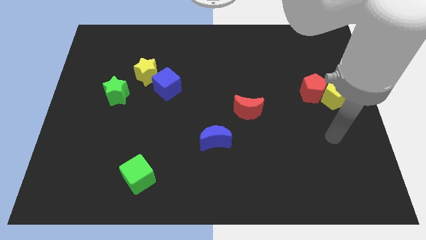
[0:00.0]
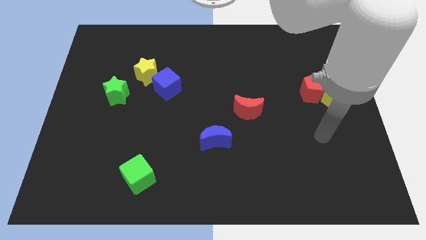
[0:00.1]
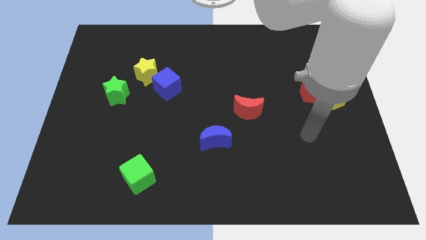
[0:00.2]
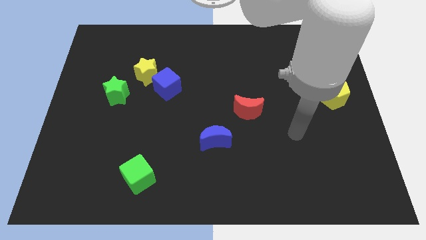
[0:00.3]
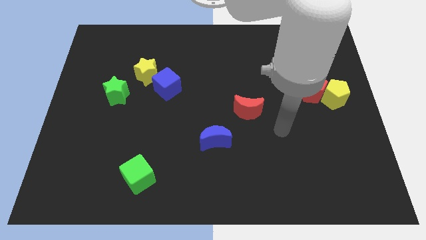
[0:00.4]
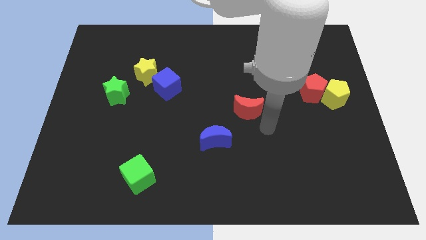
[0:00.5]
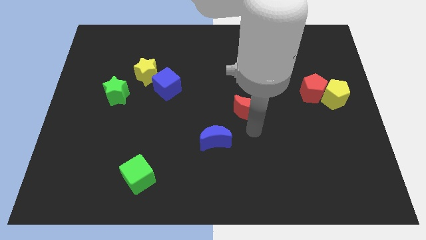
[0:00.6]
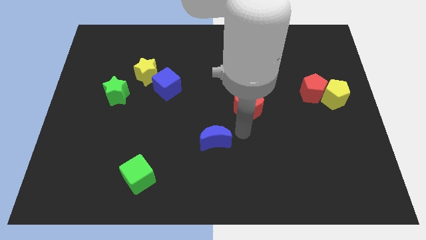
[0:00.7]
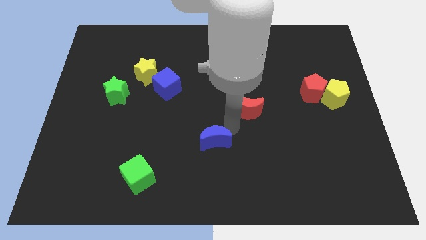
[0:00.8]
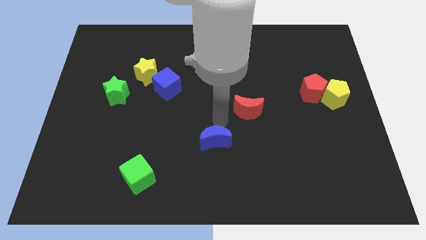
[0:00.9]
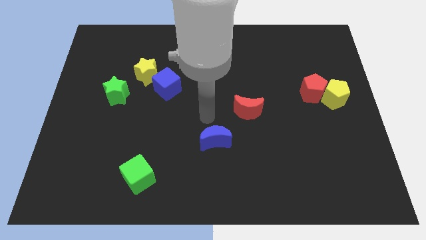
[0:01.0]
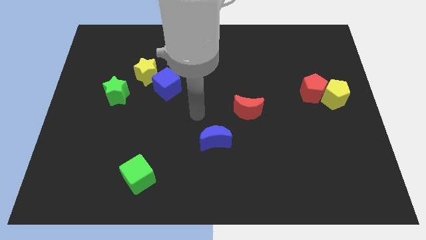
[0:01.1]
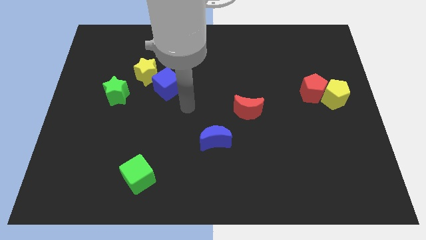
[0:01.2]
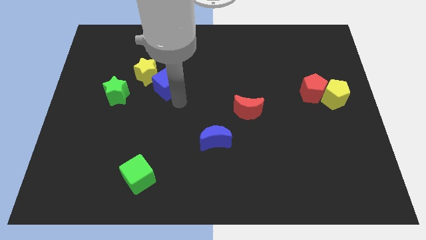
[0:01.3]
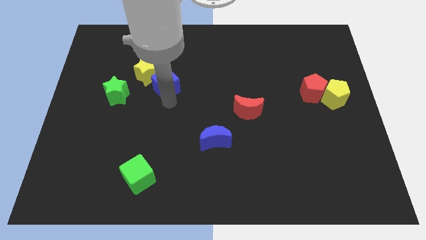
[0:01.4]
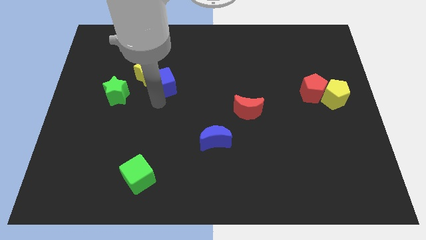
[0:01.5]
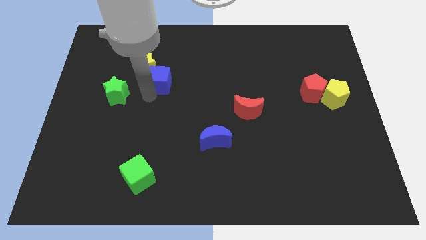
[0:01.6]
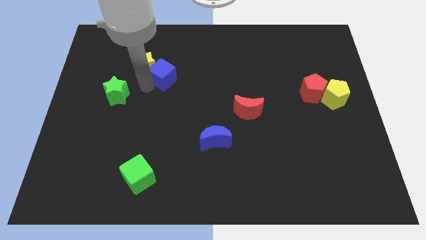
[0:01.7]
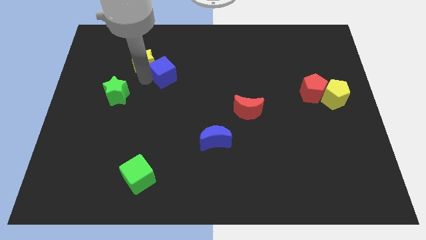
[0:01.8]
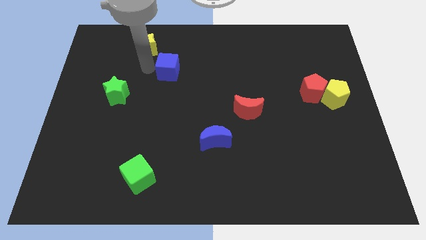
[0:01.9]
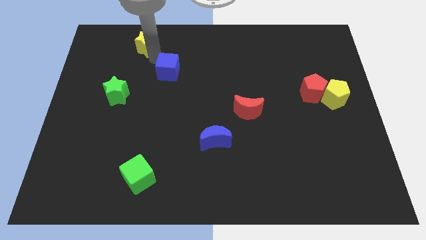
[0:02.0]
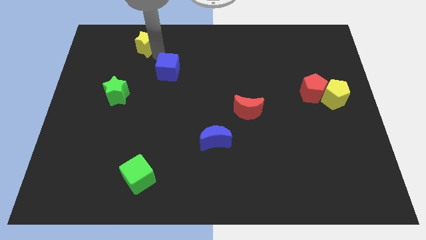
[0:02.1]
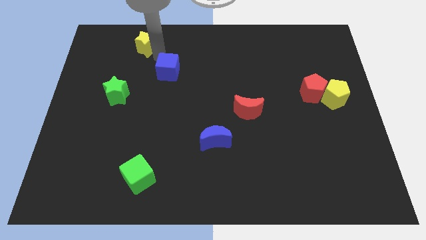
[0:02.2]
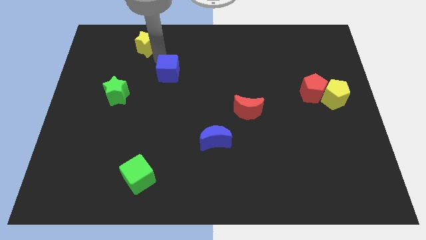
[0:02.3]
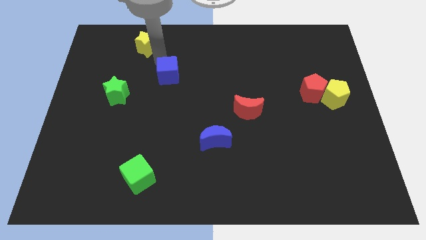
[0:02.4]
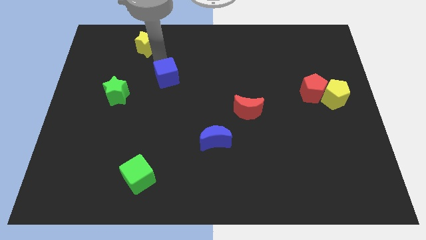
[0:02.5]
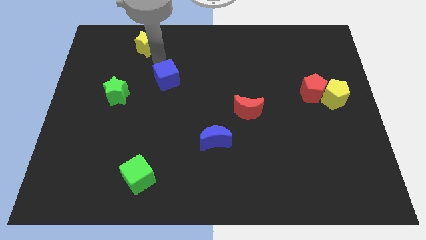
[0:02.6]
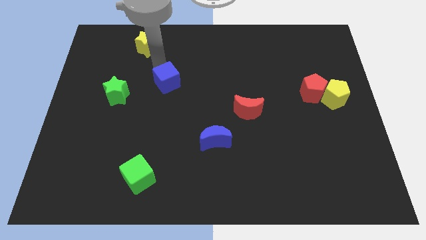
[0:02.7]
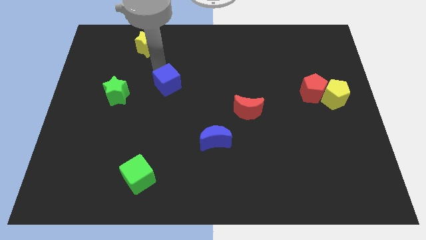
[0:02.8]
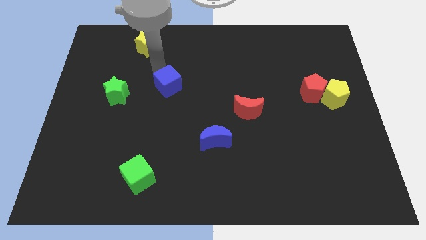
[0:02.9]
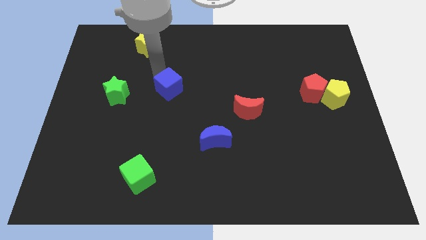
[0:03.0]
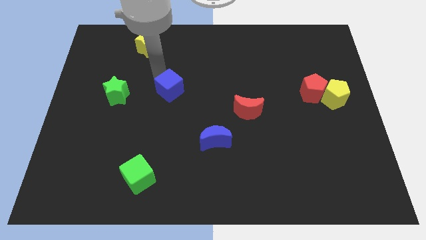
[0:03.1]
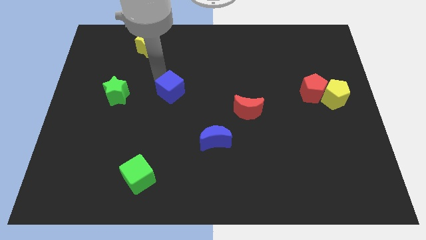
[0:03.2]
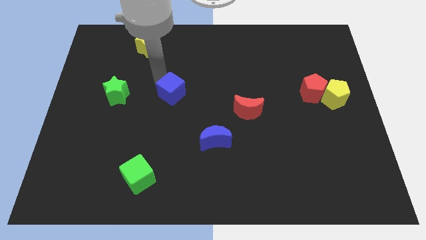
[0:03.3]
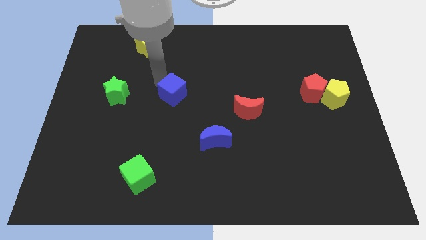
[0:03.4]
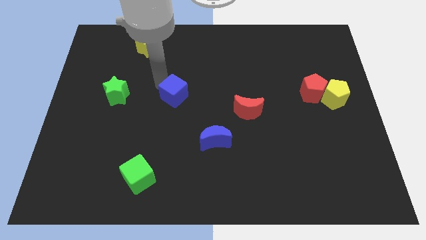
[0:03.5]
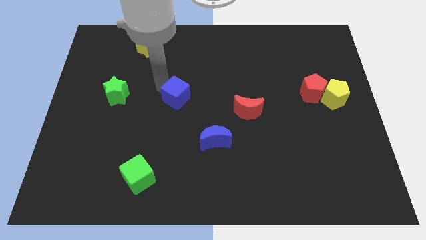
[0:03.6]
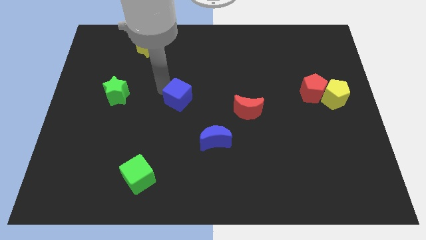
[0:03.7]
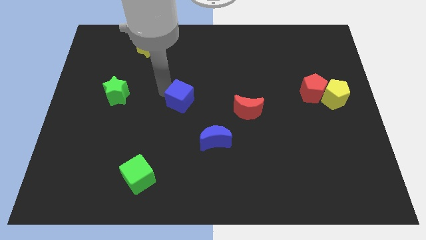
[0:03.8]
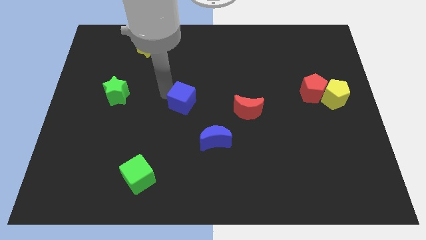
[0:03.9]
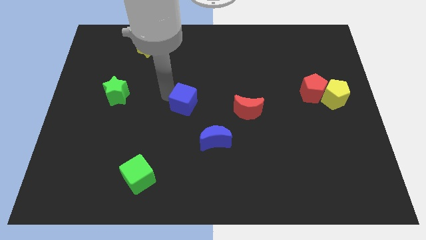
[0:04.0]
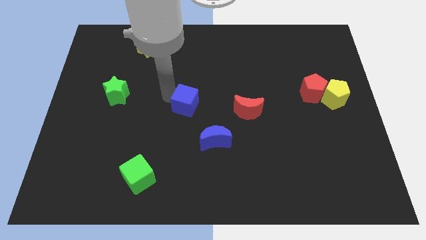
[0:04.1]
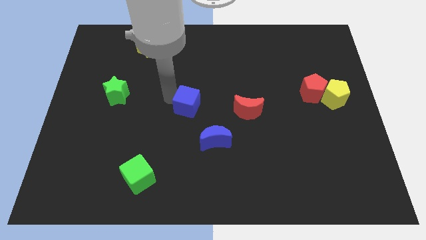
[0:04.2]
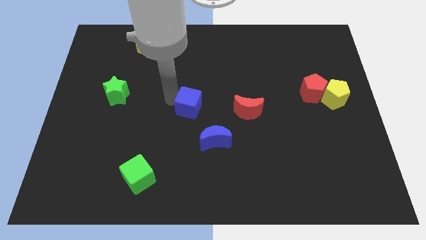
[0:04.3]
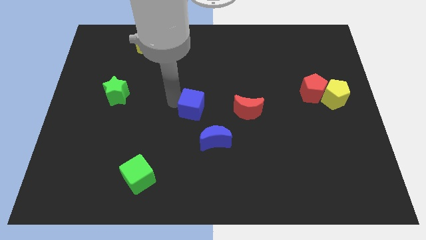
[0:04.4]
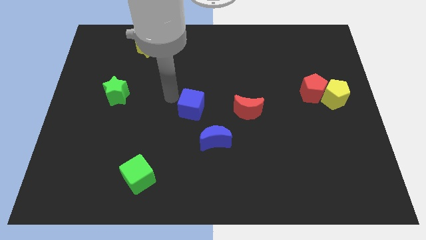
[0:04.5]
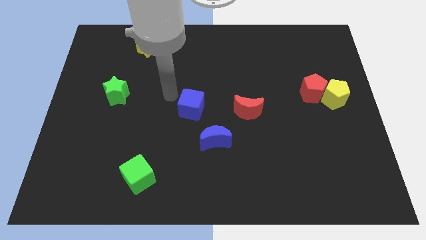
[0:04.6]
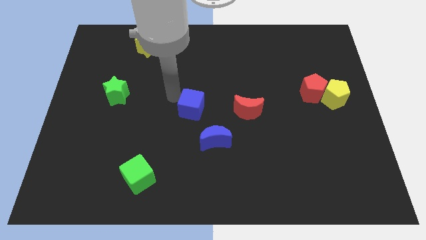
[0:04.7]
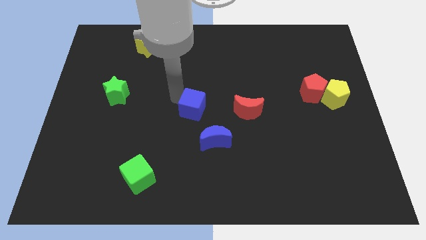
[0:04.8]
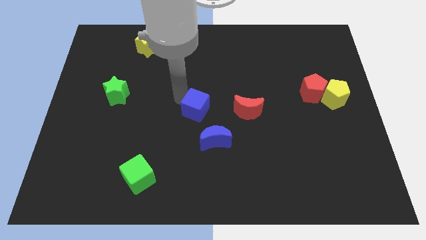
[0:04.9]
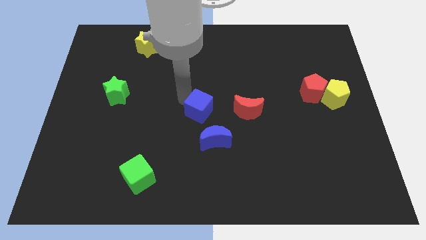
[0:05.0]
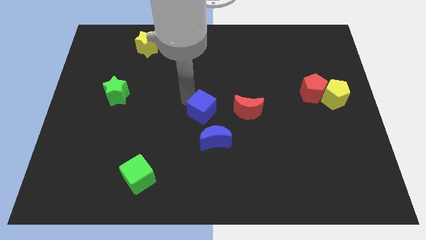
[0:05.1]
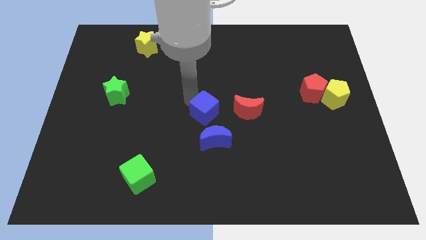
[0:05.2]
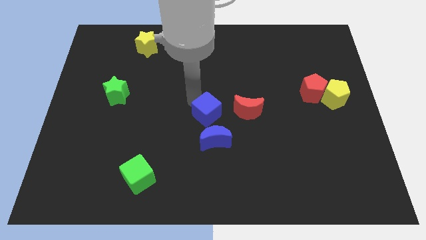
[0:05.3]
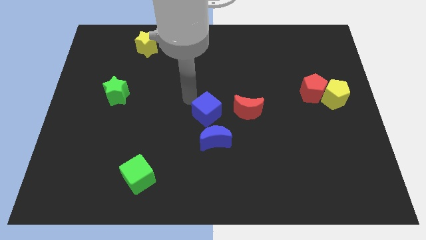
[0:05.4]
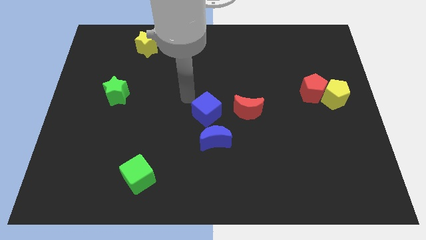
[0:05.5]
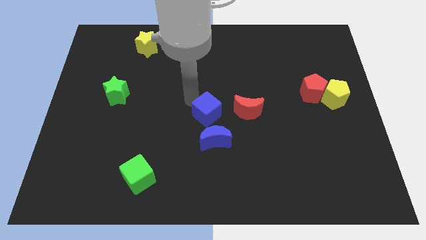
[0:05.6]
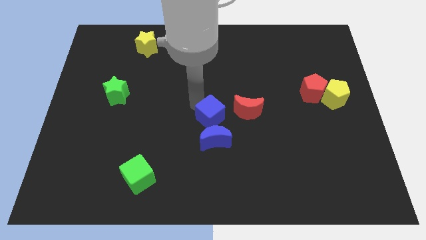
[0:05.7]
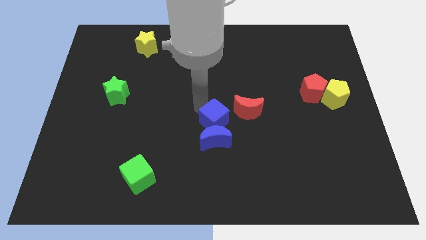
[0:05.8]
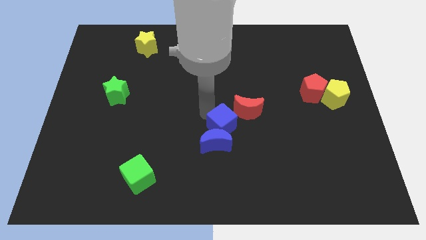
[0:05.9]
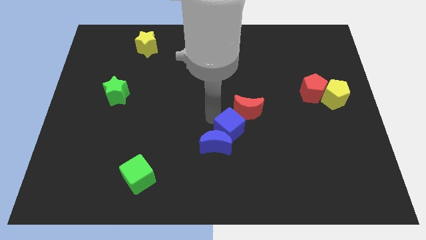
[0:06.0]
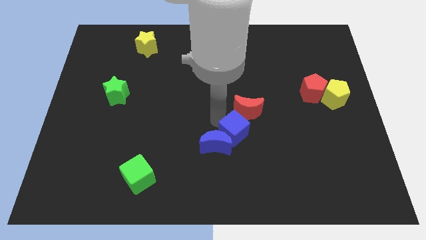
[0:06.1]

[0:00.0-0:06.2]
push the blue cube diagonally down and to the right

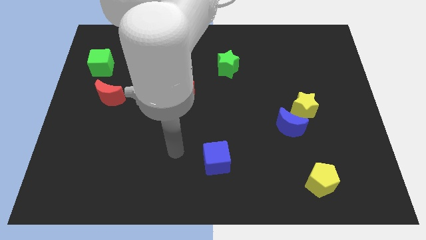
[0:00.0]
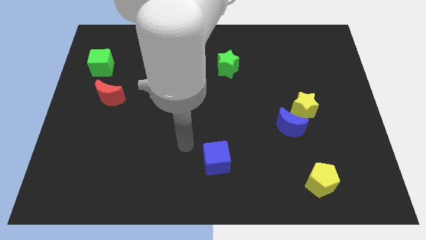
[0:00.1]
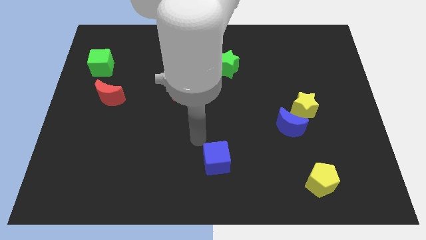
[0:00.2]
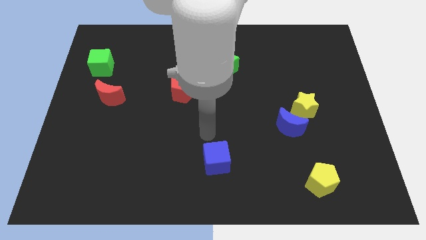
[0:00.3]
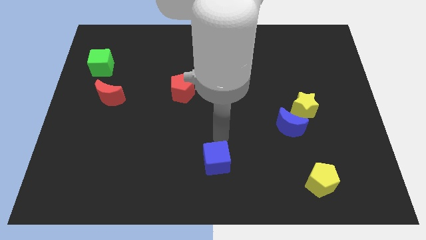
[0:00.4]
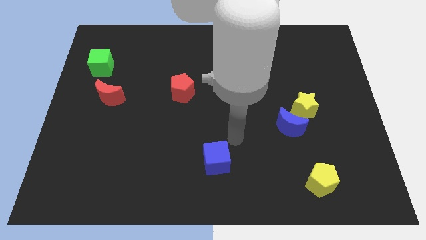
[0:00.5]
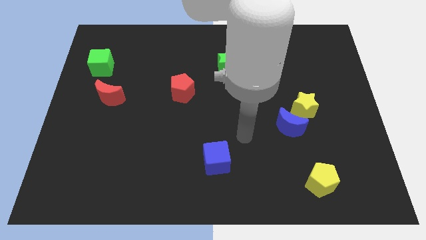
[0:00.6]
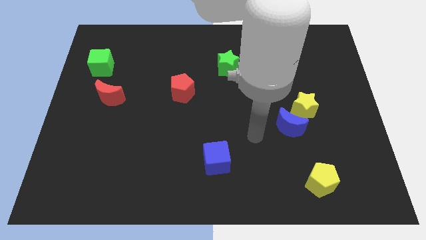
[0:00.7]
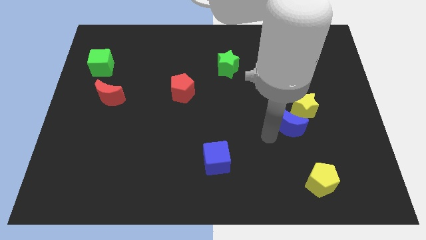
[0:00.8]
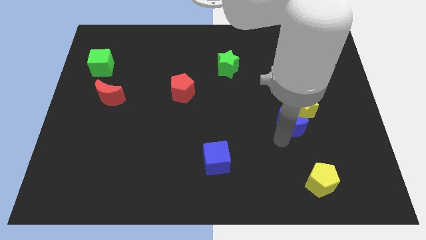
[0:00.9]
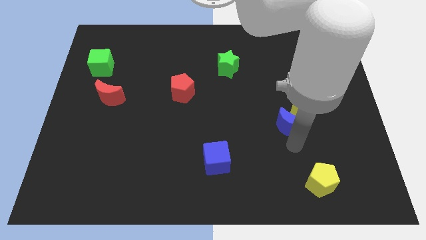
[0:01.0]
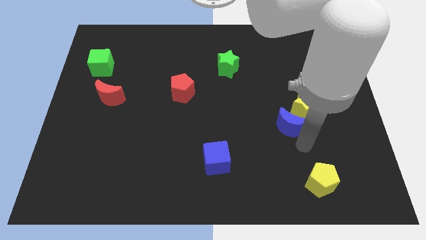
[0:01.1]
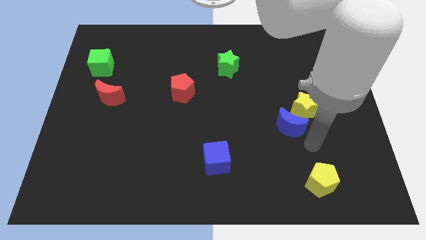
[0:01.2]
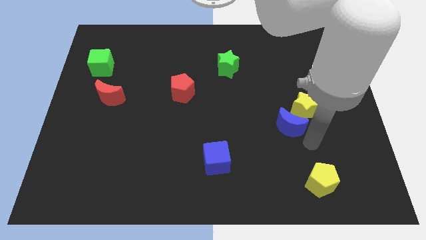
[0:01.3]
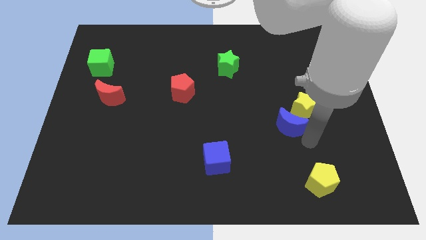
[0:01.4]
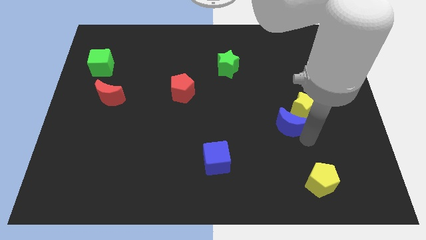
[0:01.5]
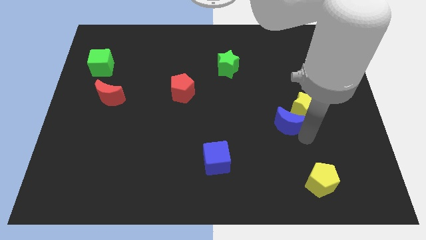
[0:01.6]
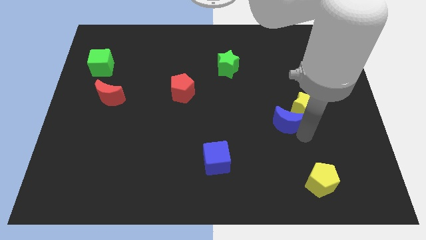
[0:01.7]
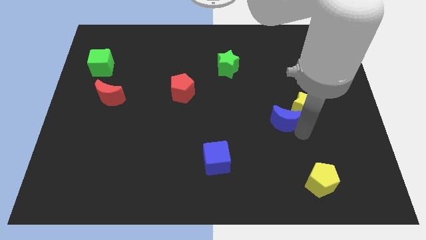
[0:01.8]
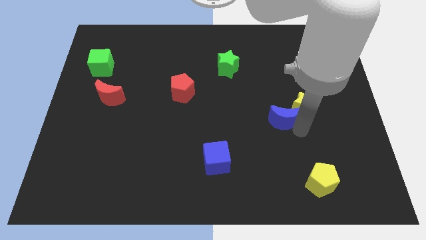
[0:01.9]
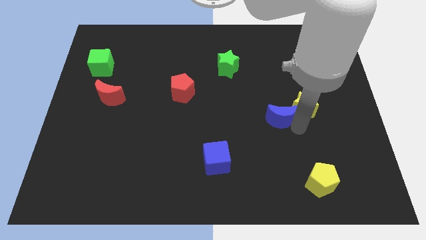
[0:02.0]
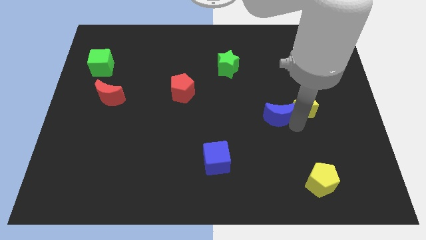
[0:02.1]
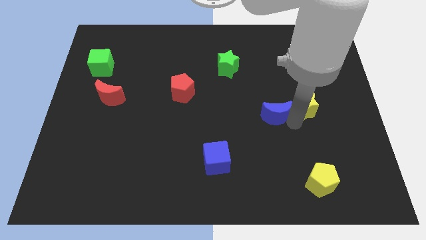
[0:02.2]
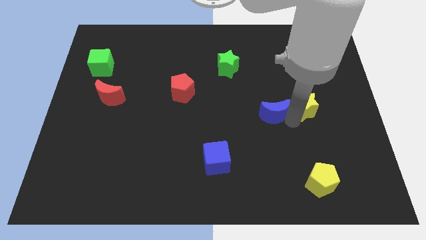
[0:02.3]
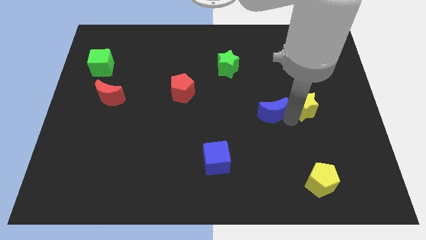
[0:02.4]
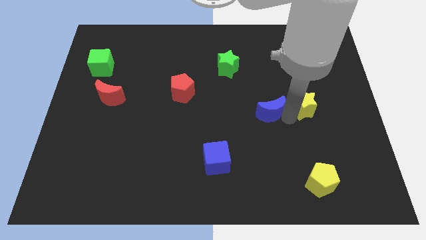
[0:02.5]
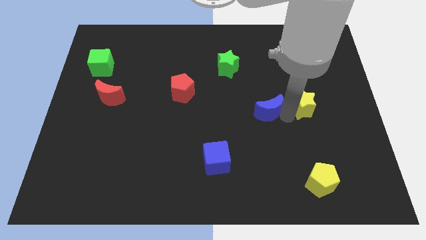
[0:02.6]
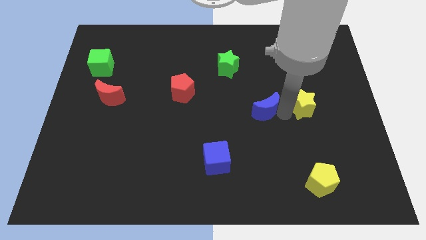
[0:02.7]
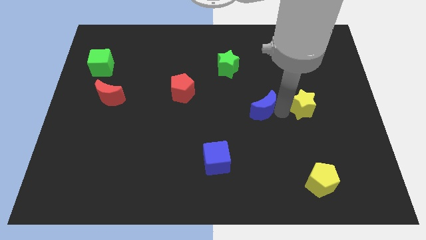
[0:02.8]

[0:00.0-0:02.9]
slide the blue moon slightly up and then left
